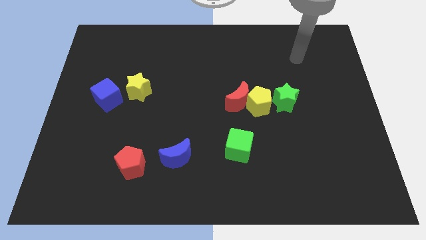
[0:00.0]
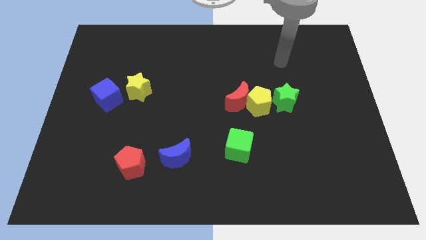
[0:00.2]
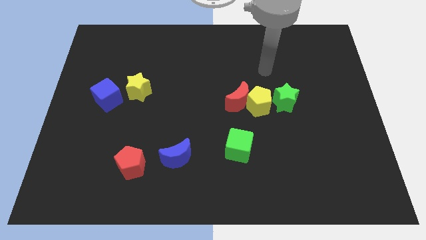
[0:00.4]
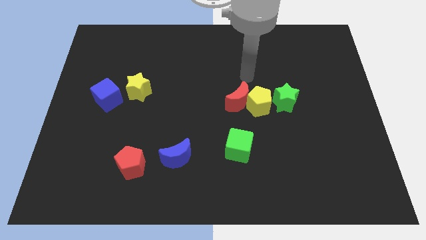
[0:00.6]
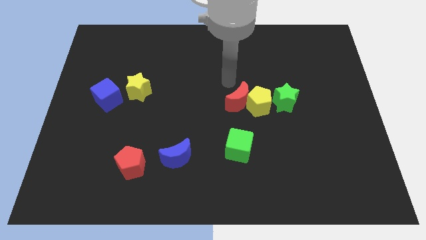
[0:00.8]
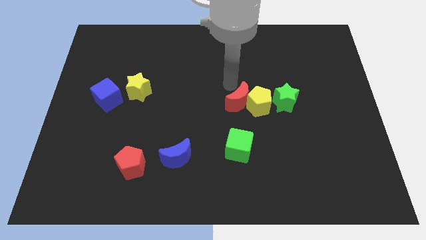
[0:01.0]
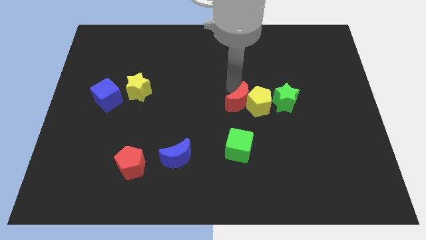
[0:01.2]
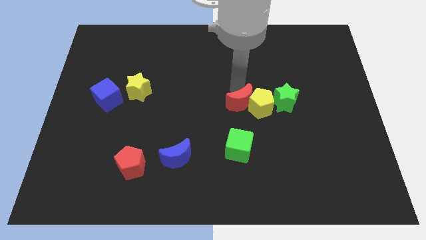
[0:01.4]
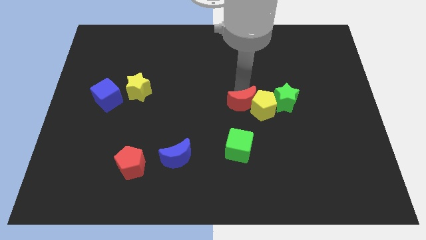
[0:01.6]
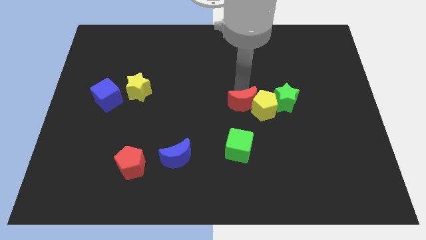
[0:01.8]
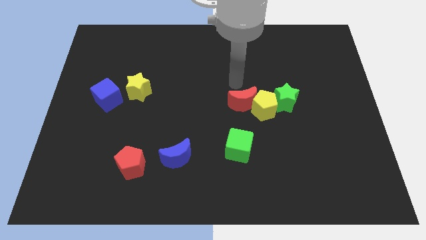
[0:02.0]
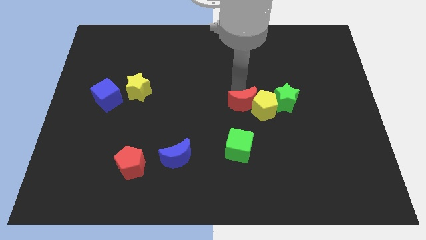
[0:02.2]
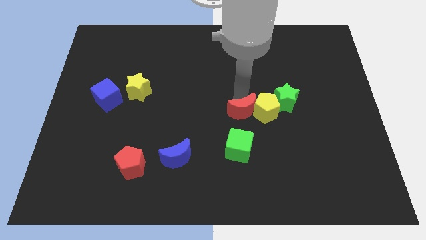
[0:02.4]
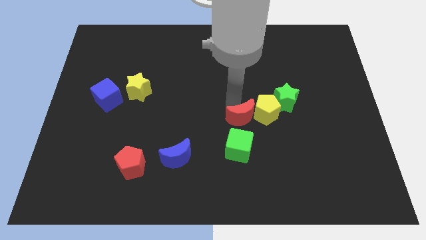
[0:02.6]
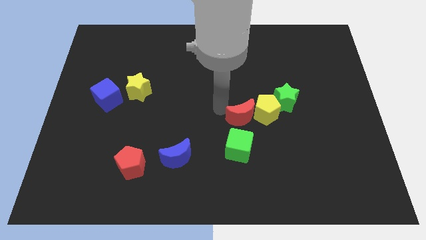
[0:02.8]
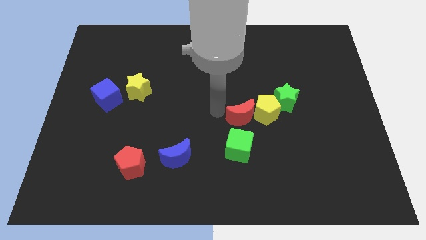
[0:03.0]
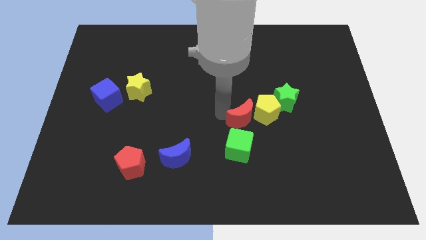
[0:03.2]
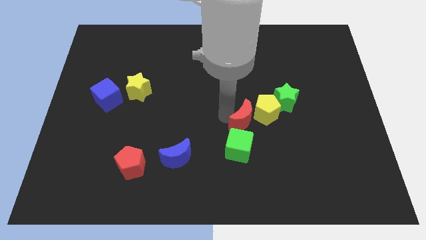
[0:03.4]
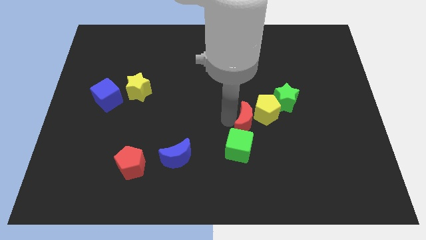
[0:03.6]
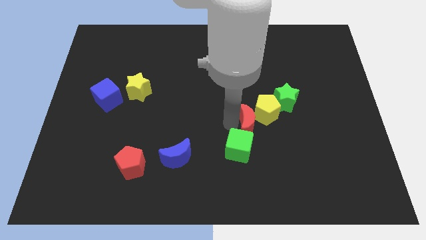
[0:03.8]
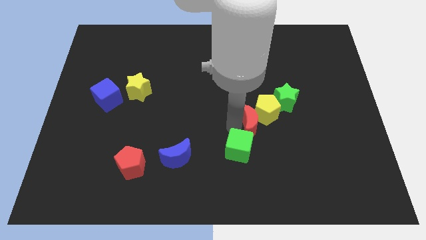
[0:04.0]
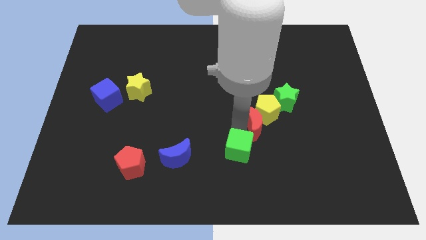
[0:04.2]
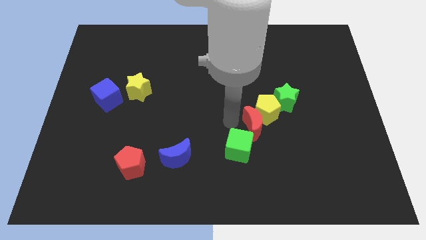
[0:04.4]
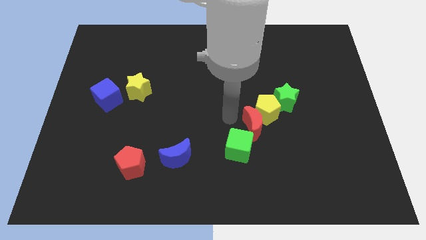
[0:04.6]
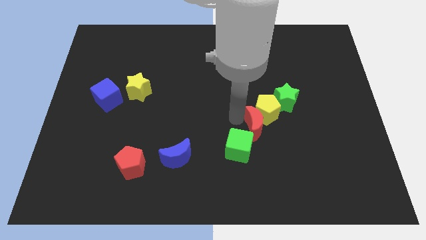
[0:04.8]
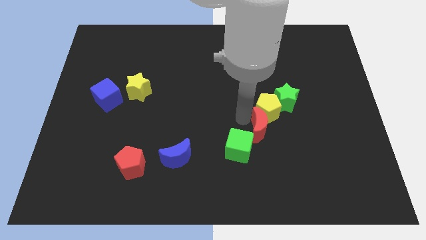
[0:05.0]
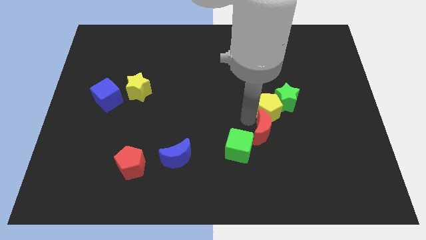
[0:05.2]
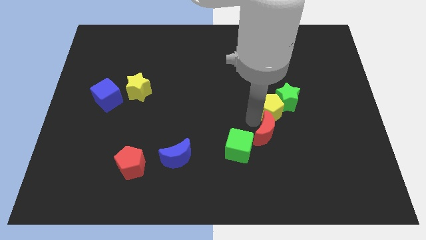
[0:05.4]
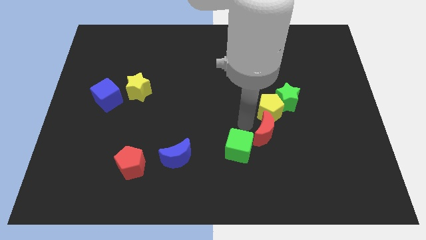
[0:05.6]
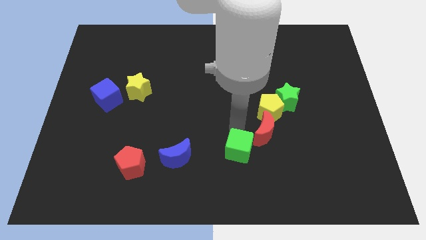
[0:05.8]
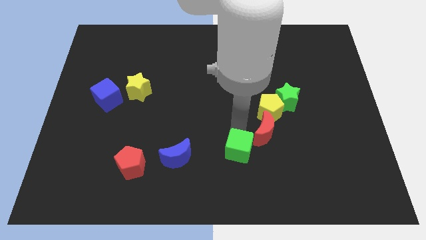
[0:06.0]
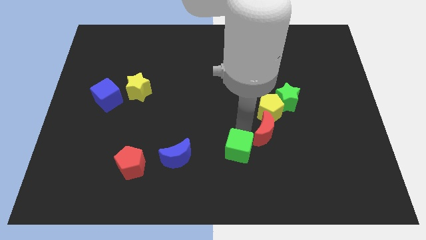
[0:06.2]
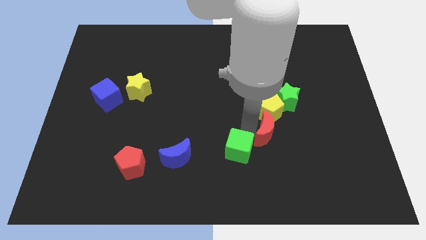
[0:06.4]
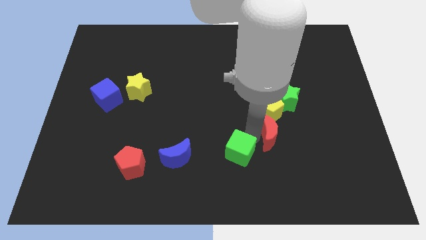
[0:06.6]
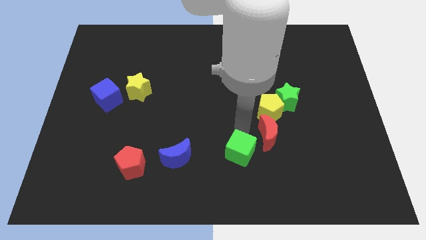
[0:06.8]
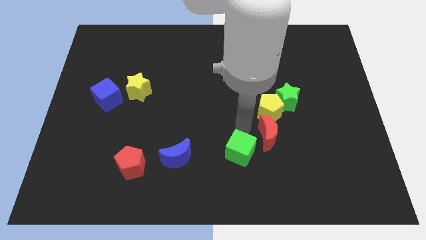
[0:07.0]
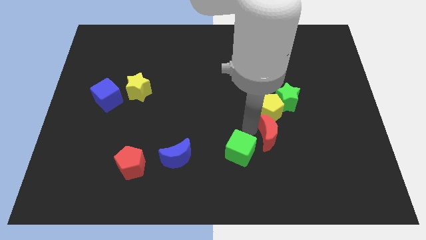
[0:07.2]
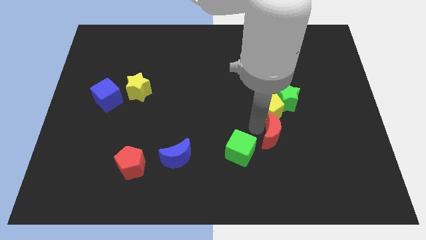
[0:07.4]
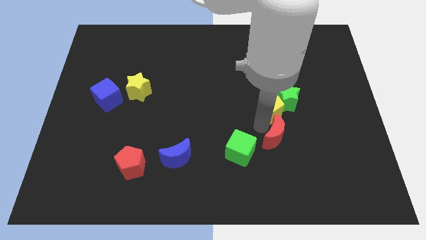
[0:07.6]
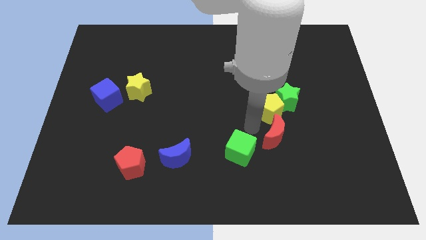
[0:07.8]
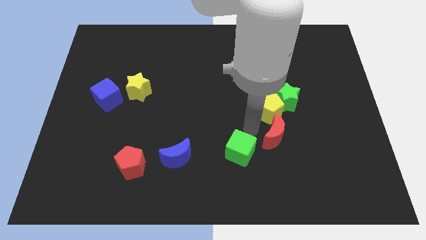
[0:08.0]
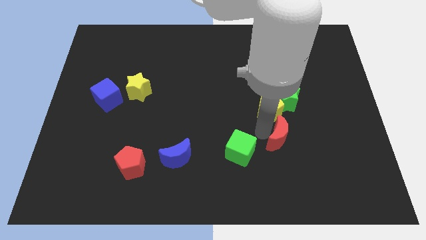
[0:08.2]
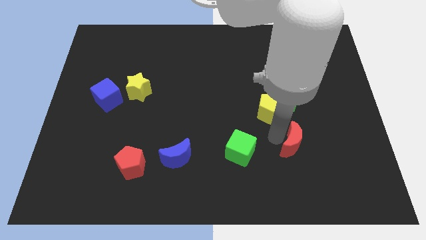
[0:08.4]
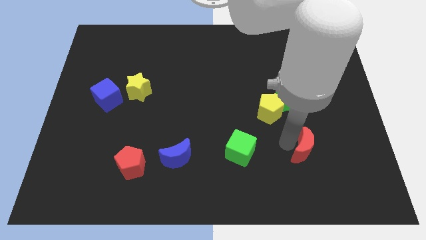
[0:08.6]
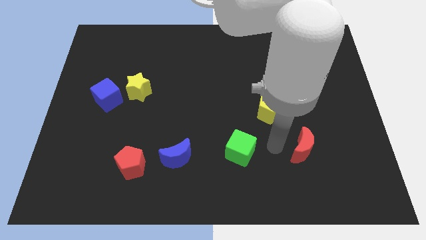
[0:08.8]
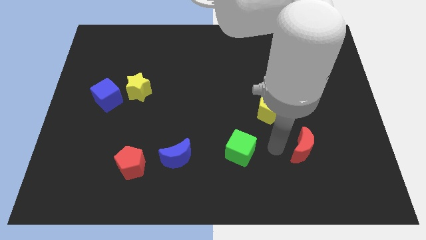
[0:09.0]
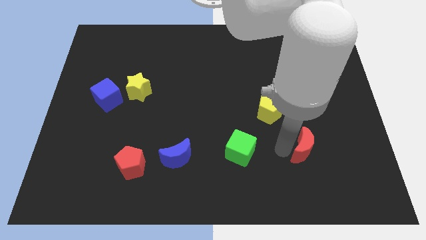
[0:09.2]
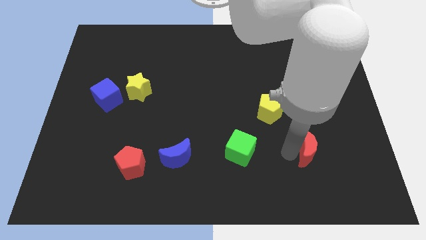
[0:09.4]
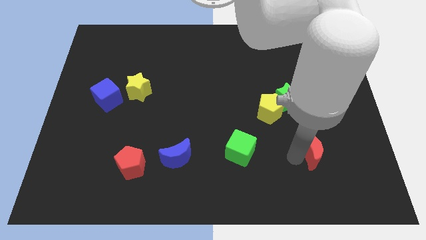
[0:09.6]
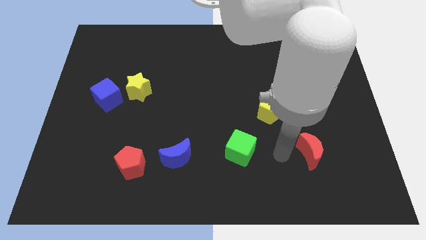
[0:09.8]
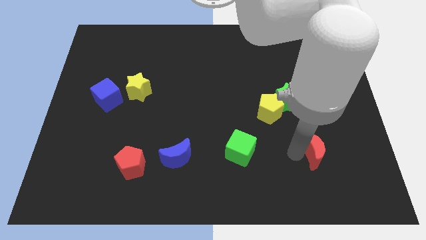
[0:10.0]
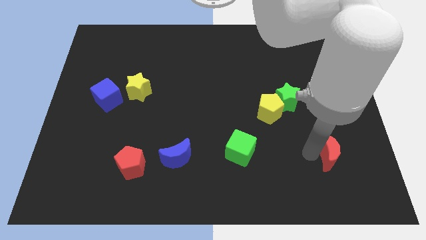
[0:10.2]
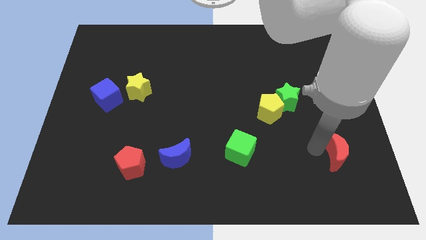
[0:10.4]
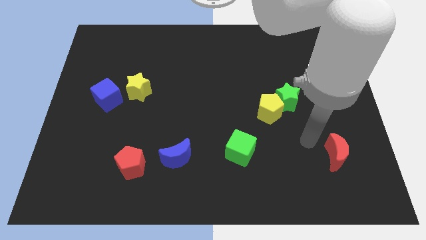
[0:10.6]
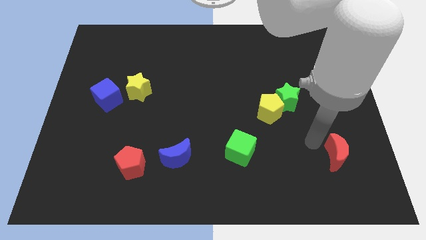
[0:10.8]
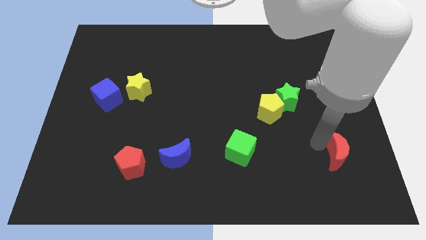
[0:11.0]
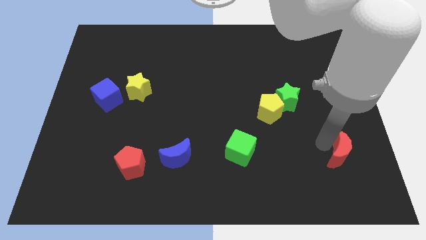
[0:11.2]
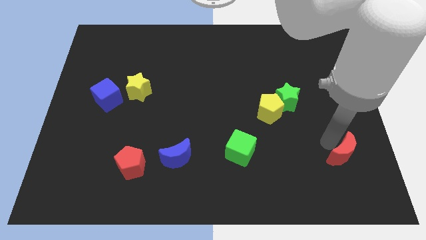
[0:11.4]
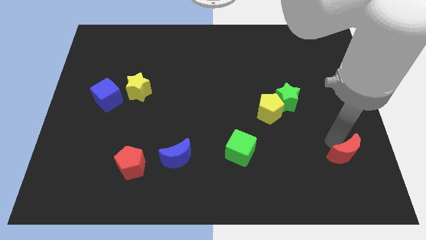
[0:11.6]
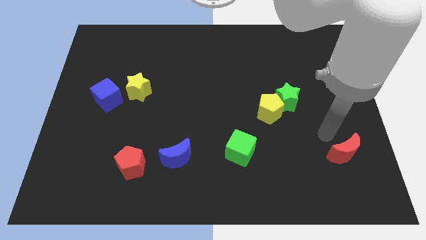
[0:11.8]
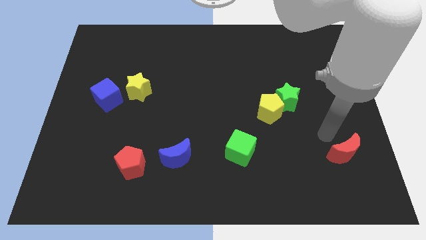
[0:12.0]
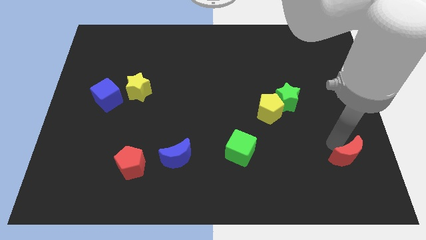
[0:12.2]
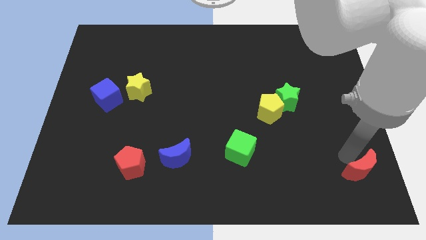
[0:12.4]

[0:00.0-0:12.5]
push the red moon to the bottom right
